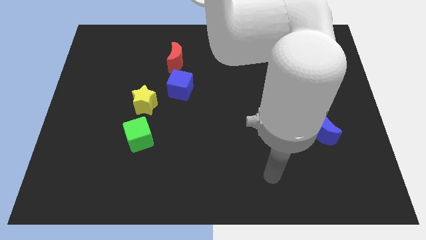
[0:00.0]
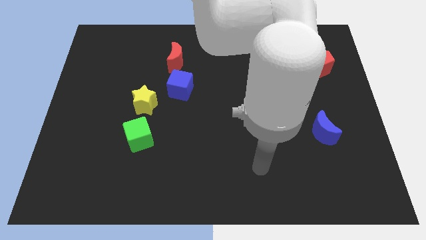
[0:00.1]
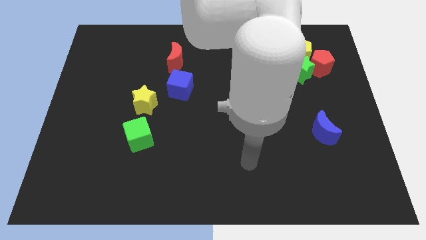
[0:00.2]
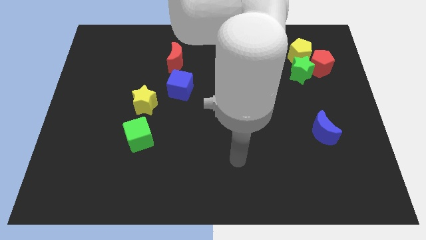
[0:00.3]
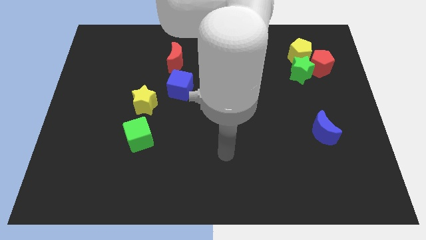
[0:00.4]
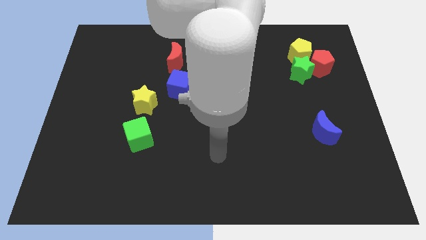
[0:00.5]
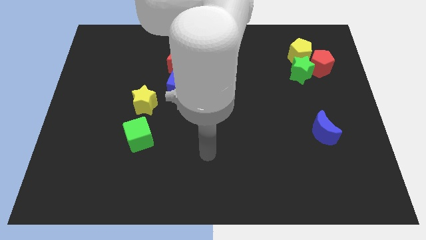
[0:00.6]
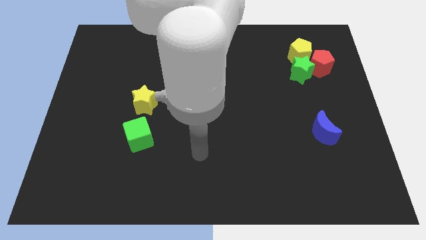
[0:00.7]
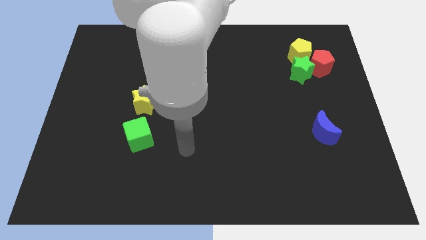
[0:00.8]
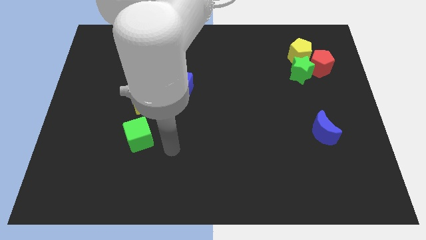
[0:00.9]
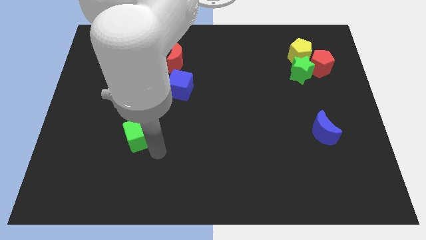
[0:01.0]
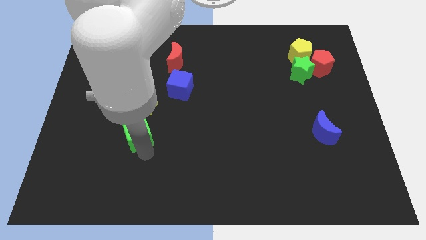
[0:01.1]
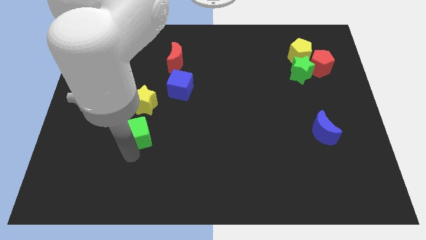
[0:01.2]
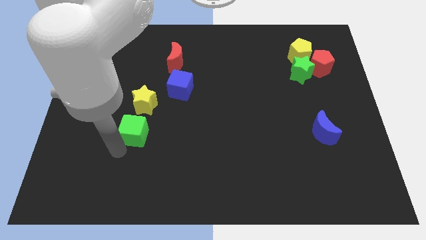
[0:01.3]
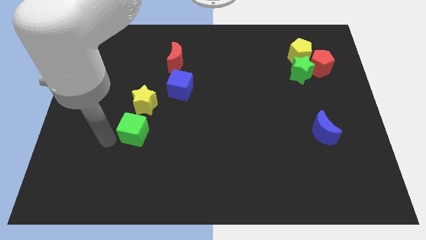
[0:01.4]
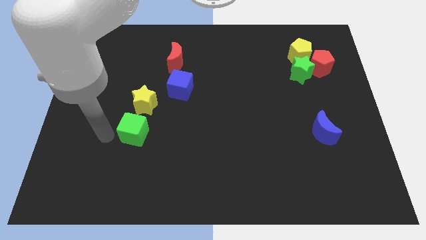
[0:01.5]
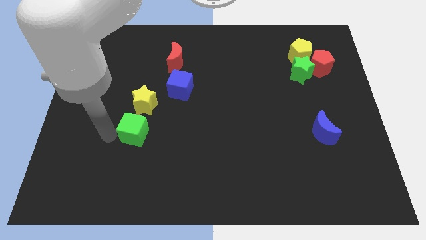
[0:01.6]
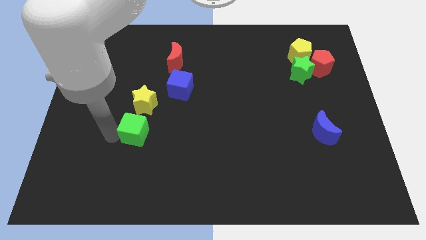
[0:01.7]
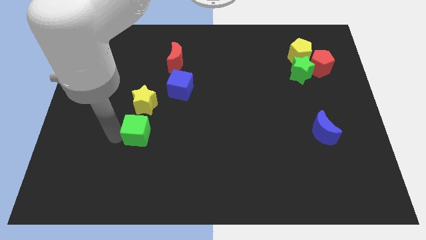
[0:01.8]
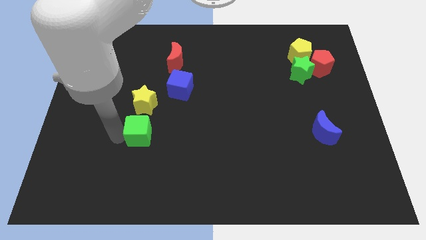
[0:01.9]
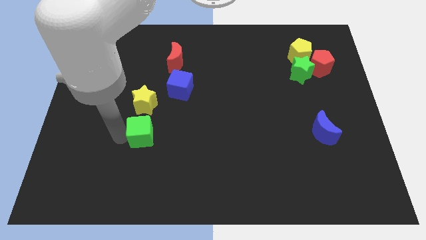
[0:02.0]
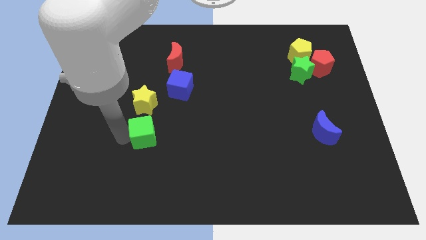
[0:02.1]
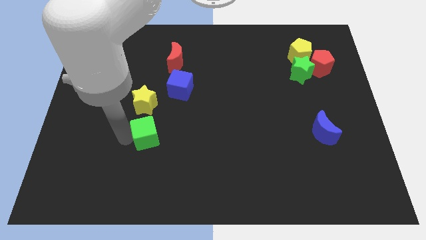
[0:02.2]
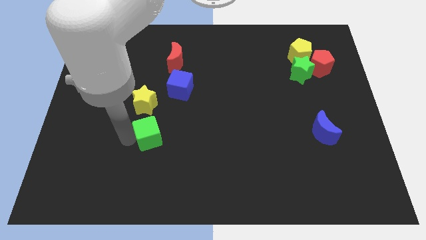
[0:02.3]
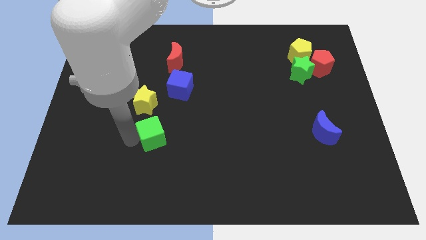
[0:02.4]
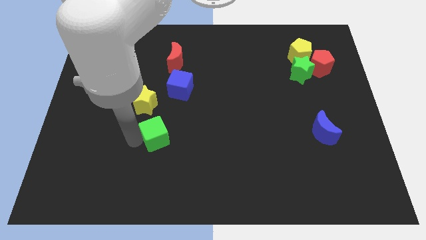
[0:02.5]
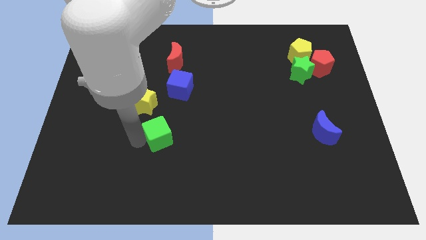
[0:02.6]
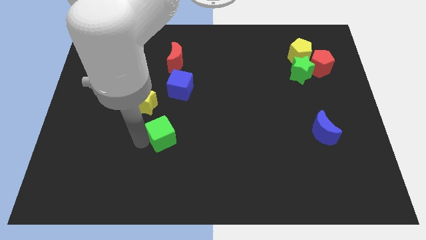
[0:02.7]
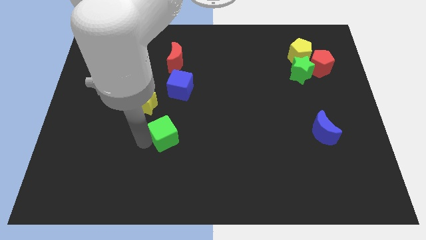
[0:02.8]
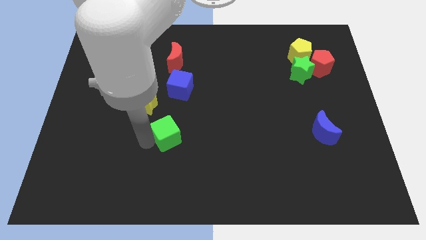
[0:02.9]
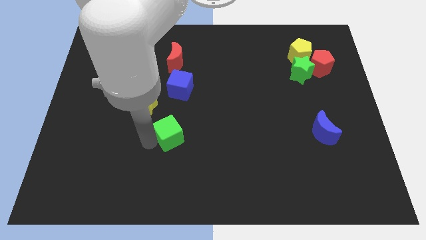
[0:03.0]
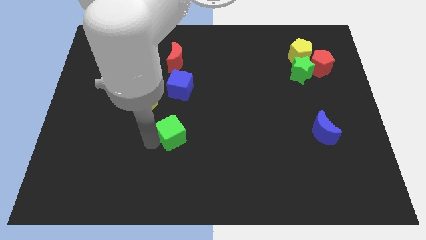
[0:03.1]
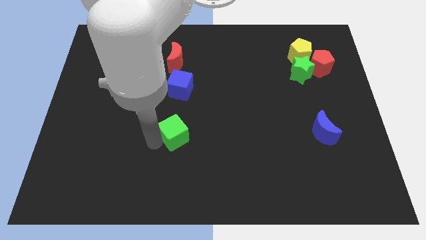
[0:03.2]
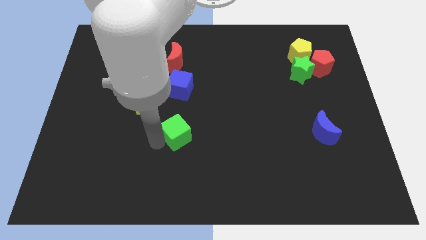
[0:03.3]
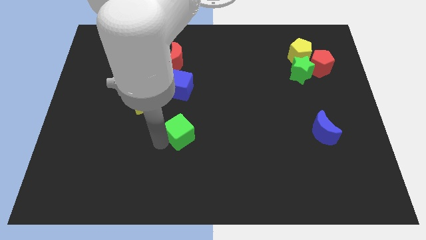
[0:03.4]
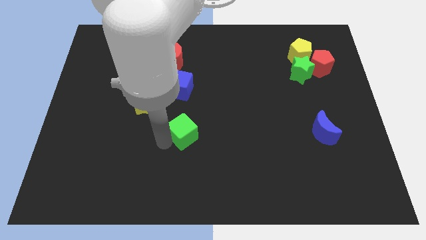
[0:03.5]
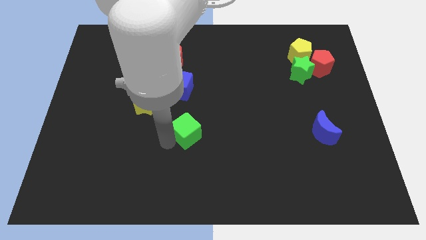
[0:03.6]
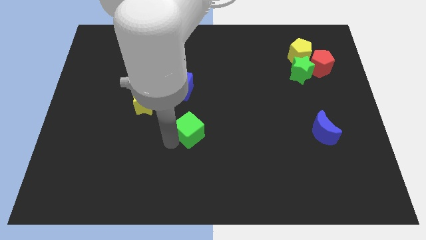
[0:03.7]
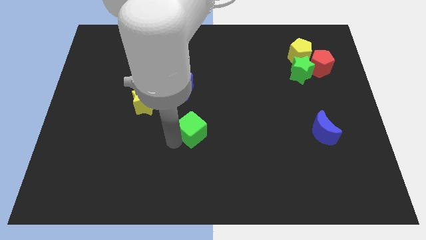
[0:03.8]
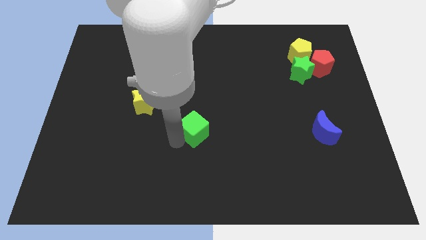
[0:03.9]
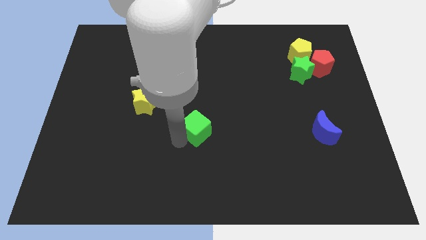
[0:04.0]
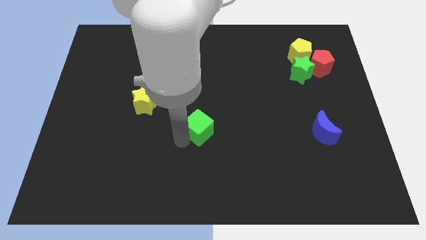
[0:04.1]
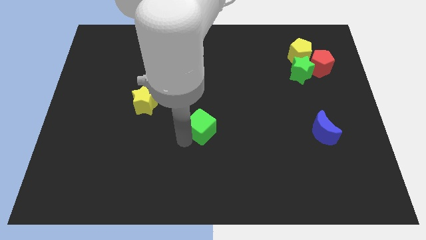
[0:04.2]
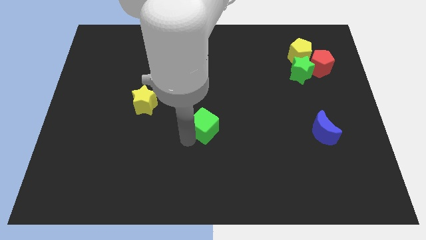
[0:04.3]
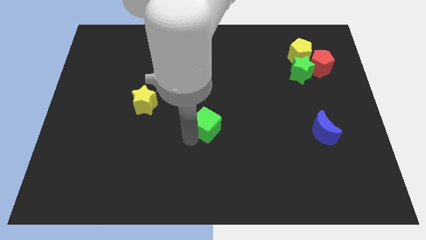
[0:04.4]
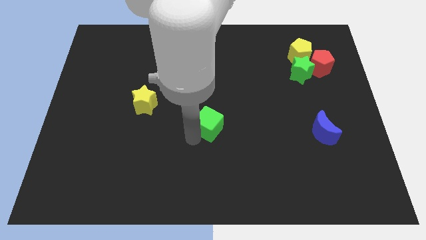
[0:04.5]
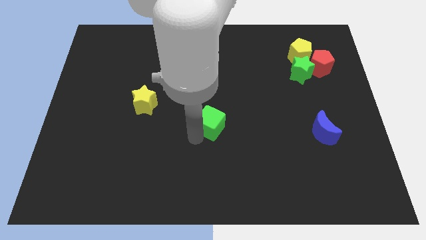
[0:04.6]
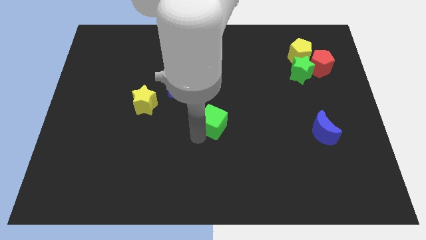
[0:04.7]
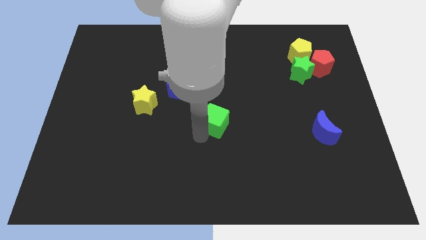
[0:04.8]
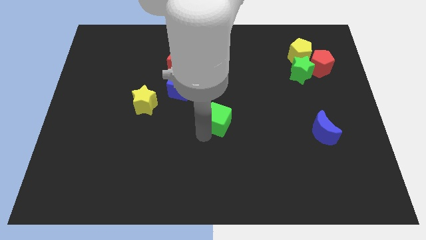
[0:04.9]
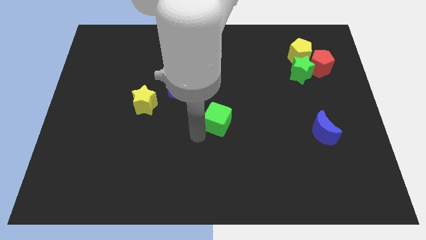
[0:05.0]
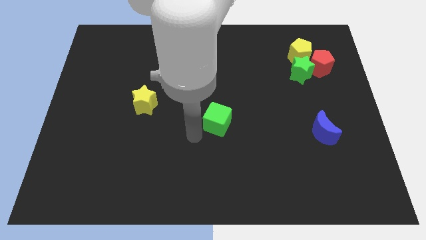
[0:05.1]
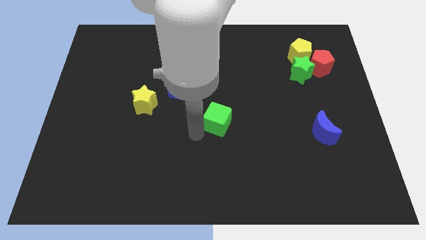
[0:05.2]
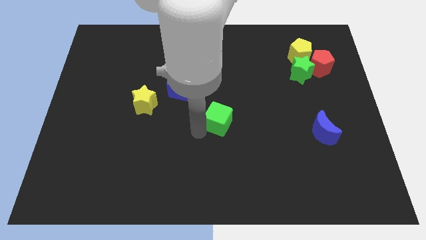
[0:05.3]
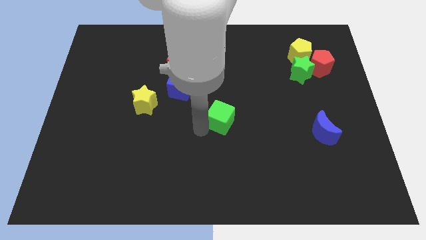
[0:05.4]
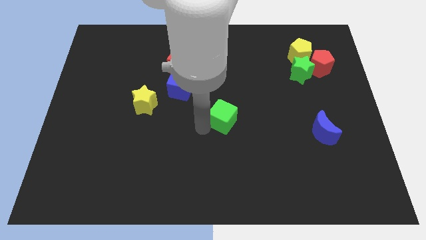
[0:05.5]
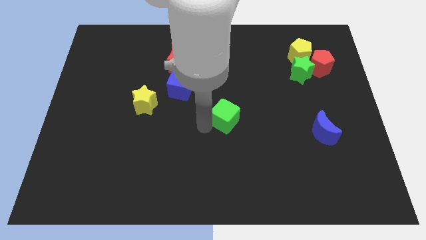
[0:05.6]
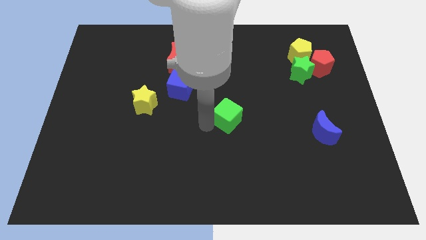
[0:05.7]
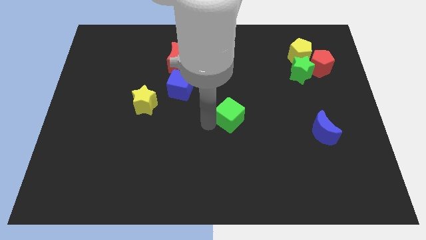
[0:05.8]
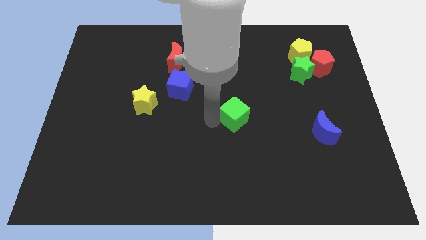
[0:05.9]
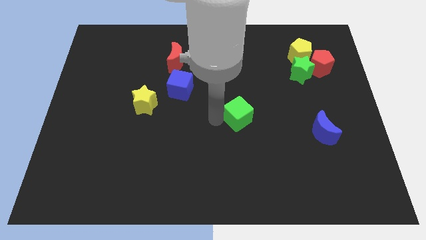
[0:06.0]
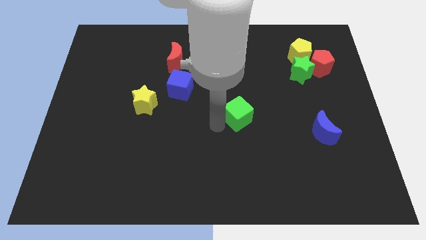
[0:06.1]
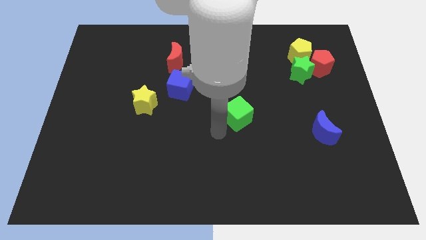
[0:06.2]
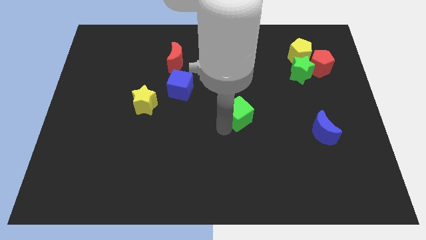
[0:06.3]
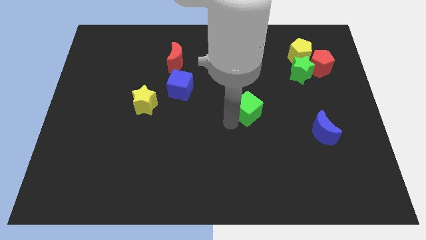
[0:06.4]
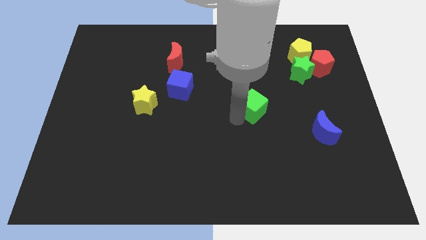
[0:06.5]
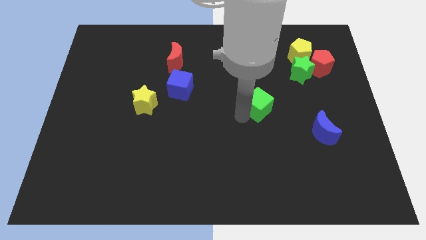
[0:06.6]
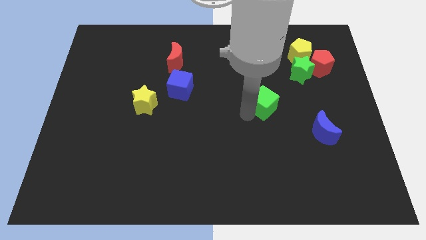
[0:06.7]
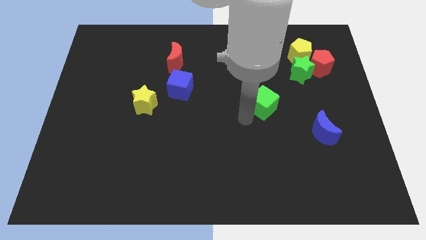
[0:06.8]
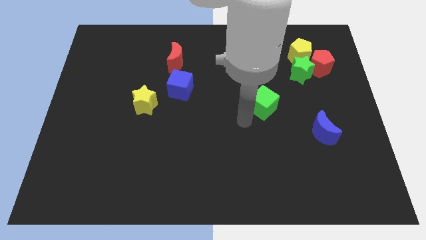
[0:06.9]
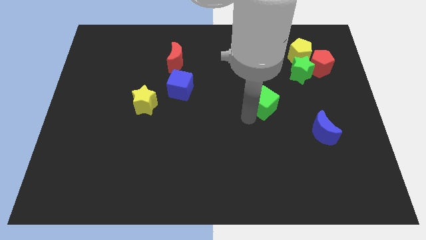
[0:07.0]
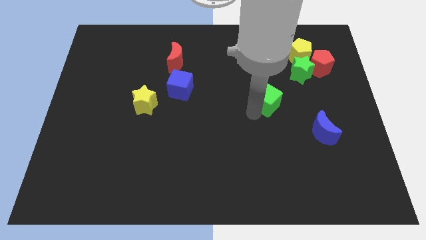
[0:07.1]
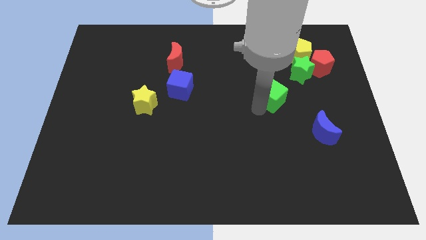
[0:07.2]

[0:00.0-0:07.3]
move the green cube to the bottom left of the green star
